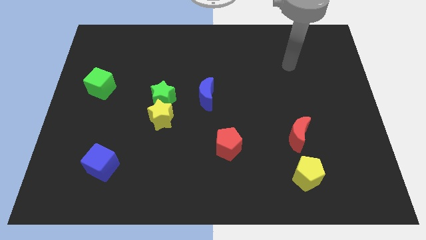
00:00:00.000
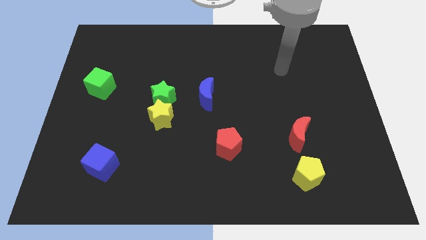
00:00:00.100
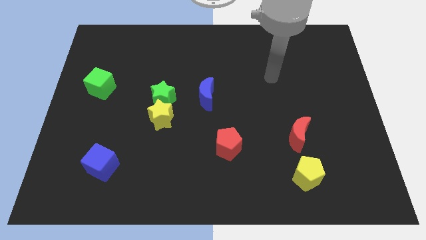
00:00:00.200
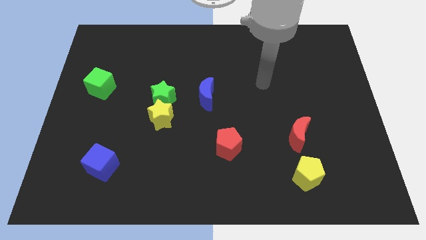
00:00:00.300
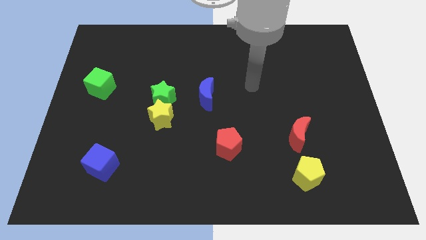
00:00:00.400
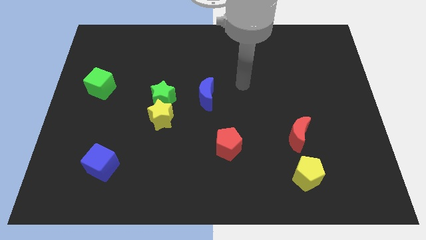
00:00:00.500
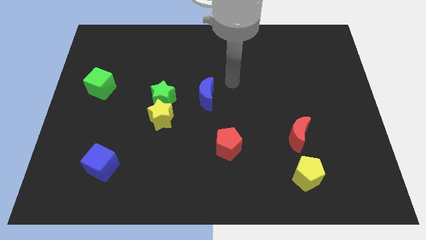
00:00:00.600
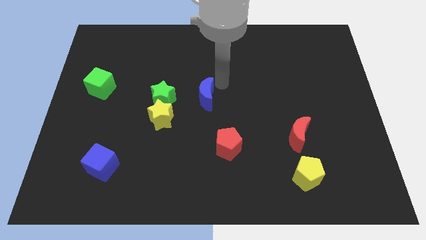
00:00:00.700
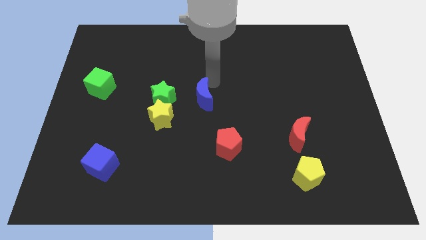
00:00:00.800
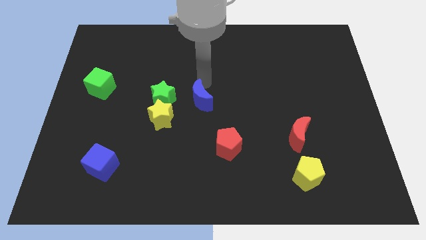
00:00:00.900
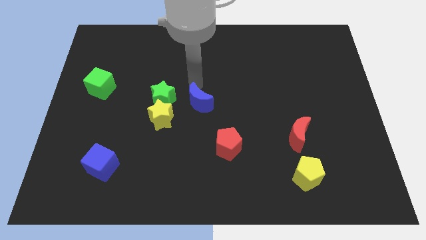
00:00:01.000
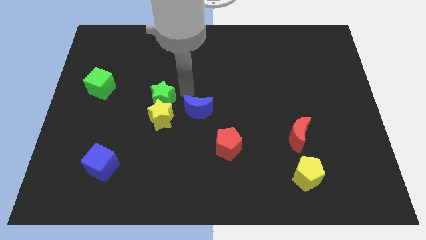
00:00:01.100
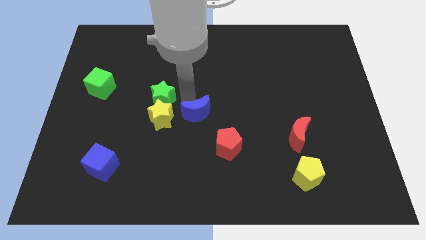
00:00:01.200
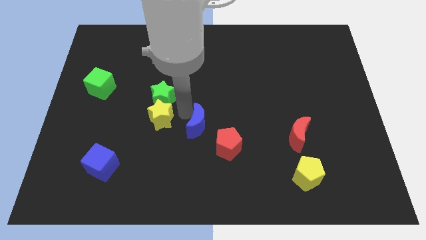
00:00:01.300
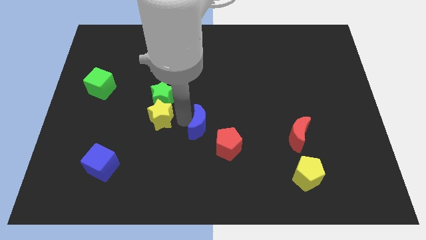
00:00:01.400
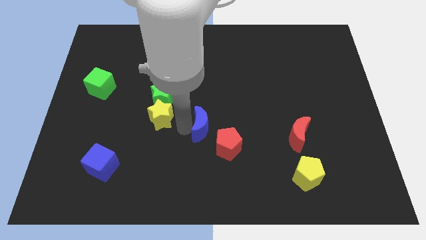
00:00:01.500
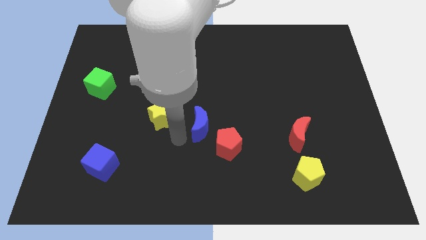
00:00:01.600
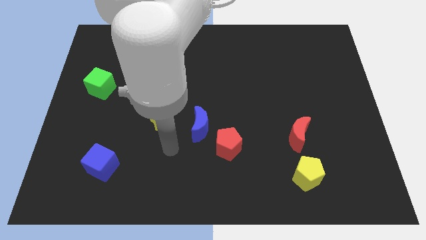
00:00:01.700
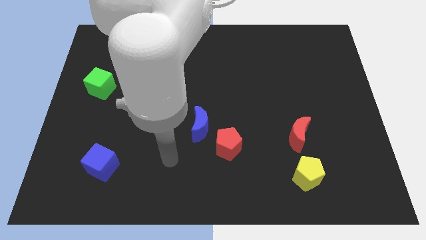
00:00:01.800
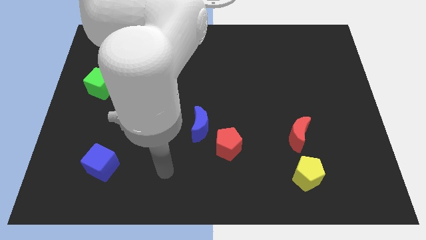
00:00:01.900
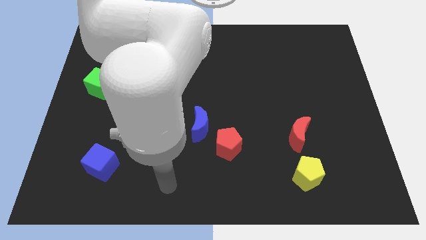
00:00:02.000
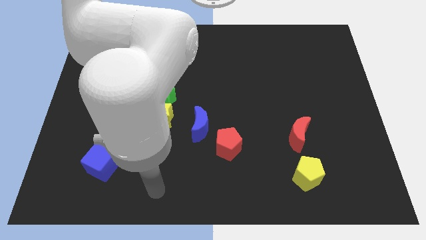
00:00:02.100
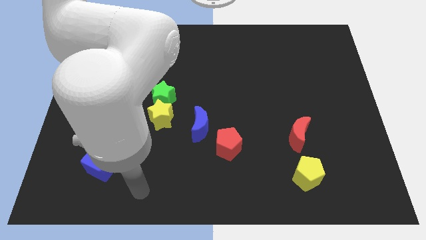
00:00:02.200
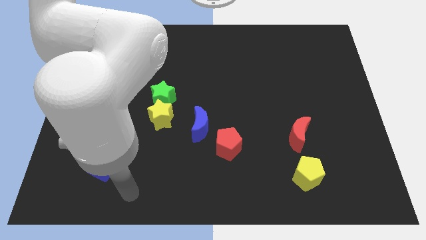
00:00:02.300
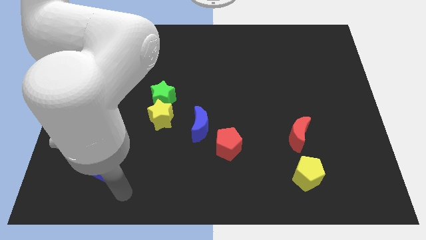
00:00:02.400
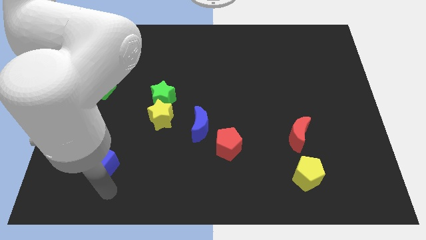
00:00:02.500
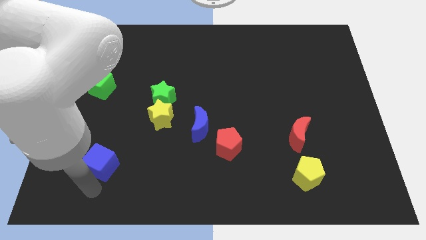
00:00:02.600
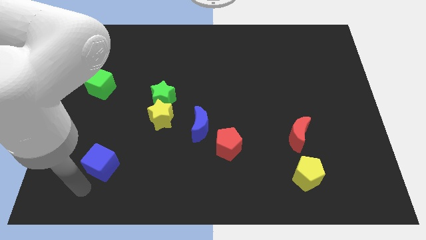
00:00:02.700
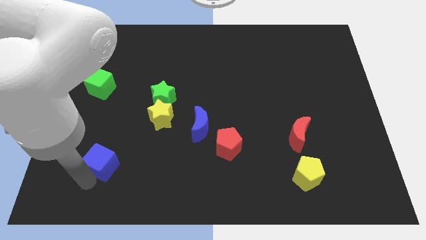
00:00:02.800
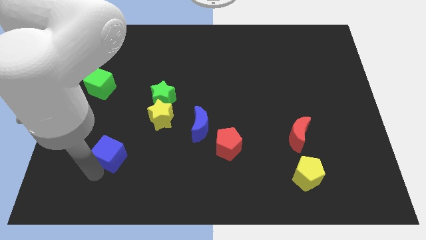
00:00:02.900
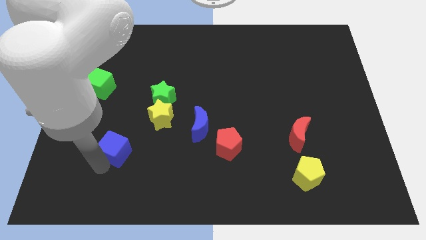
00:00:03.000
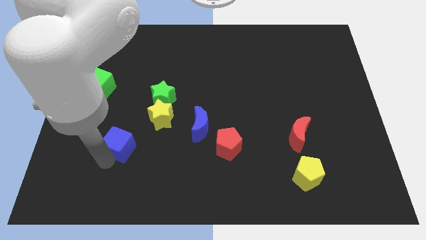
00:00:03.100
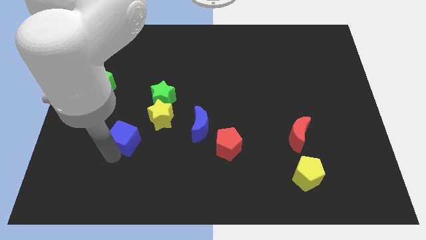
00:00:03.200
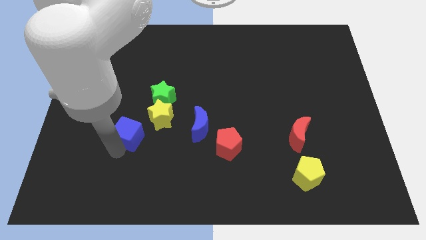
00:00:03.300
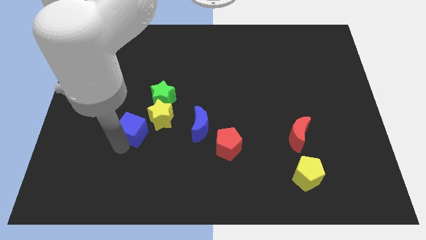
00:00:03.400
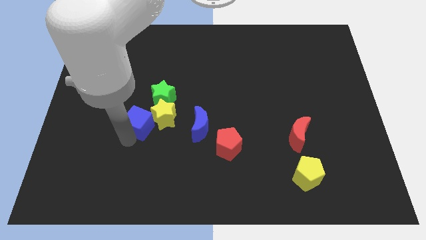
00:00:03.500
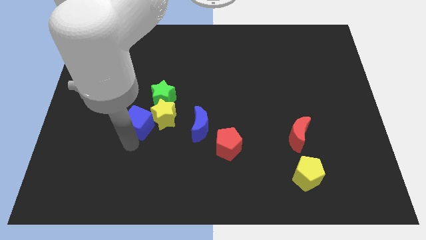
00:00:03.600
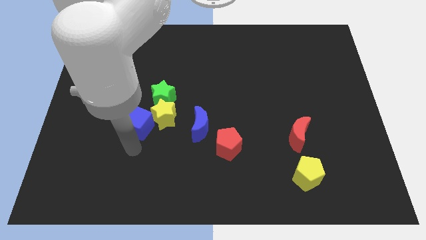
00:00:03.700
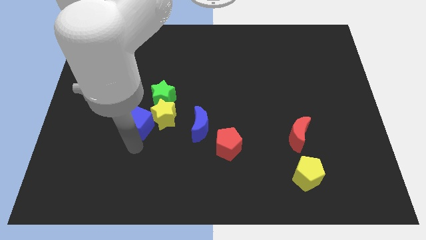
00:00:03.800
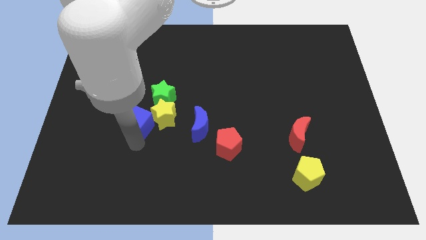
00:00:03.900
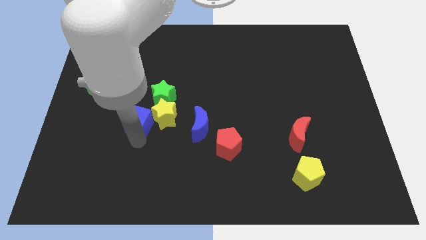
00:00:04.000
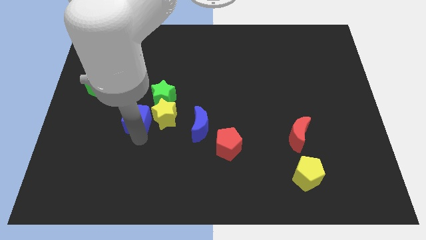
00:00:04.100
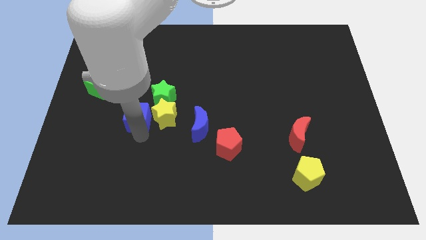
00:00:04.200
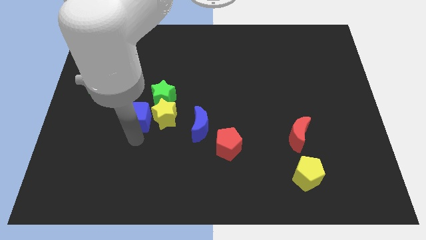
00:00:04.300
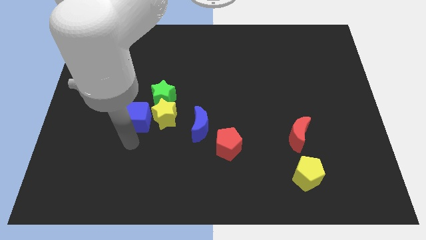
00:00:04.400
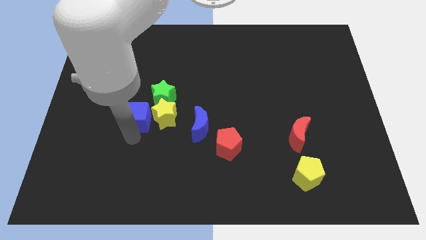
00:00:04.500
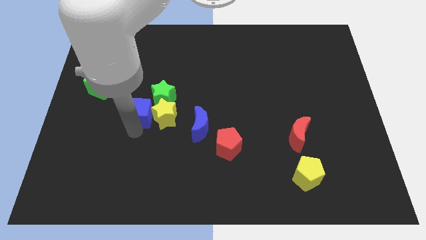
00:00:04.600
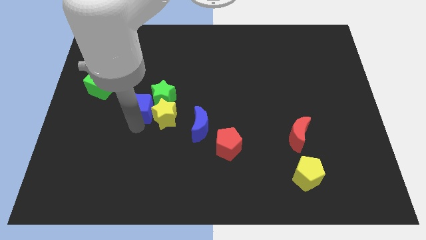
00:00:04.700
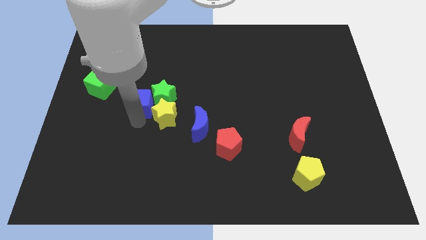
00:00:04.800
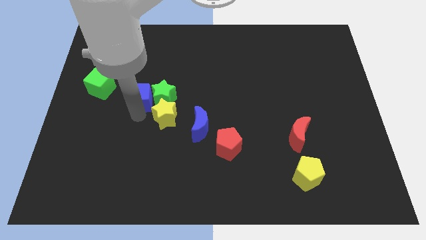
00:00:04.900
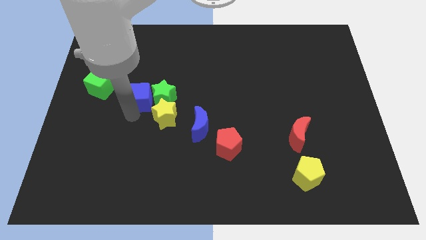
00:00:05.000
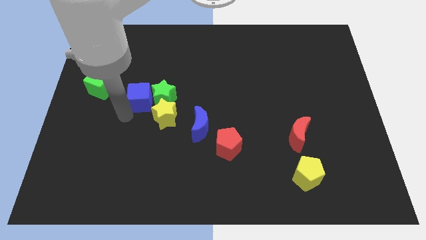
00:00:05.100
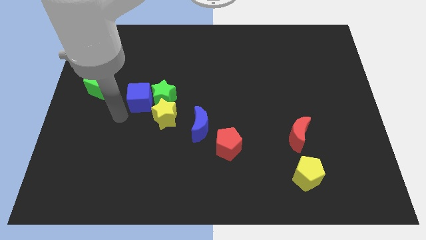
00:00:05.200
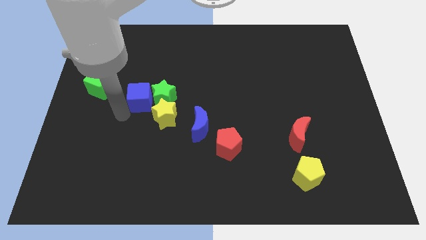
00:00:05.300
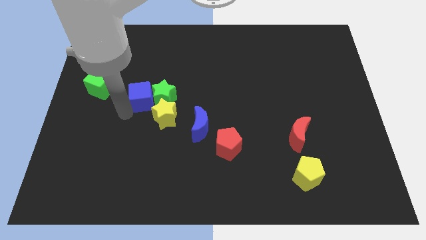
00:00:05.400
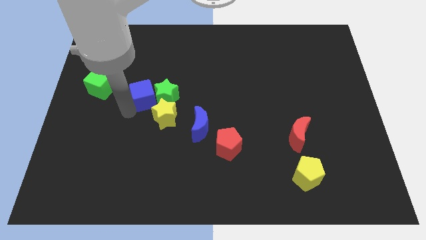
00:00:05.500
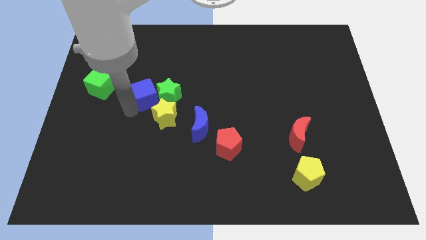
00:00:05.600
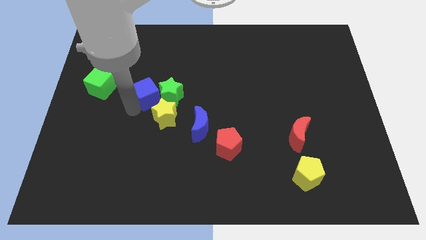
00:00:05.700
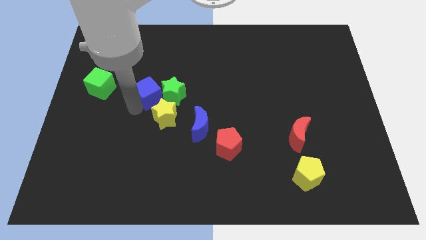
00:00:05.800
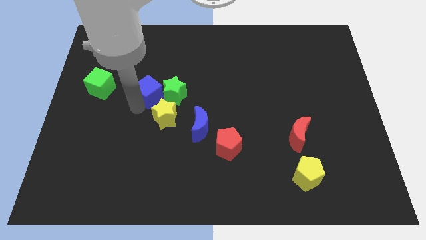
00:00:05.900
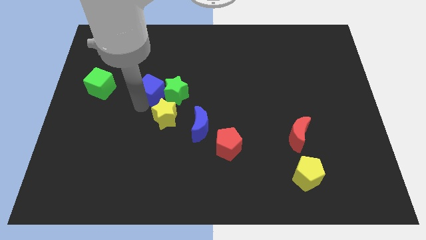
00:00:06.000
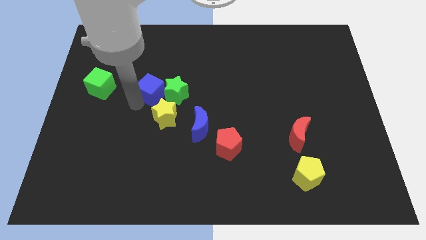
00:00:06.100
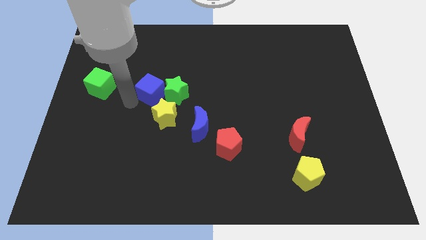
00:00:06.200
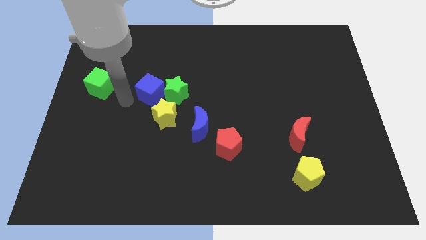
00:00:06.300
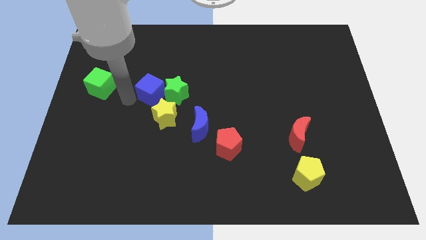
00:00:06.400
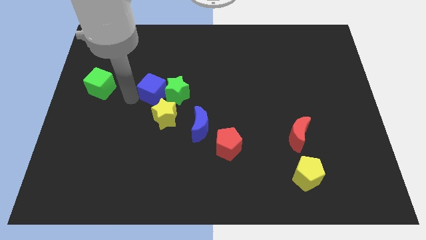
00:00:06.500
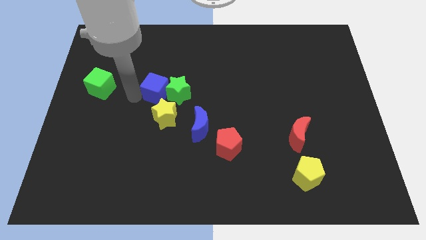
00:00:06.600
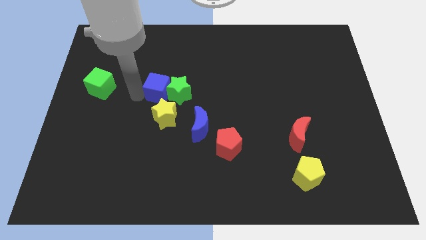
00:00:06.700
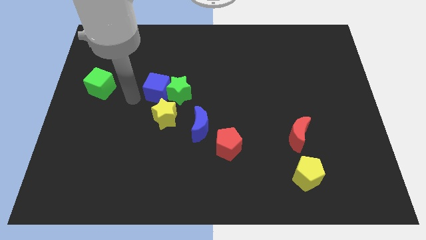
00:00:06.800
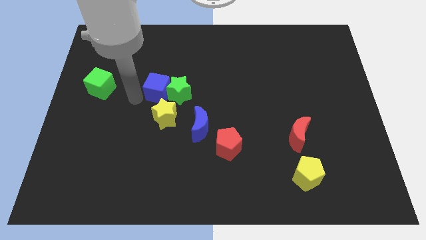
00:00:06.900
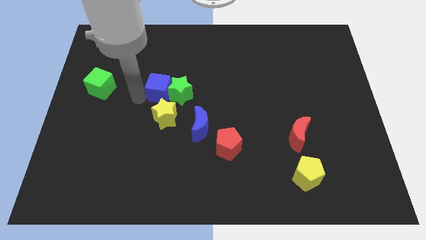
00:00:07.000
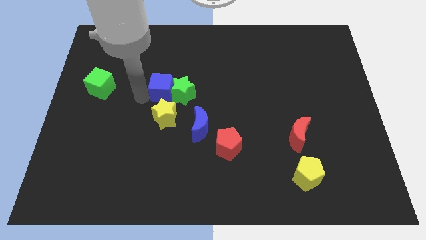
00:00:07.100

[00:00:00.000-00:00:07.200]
slide the blue cube diagonally up and to the right

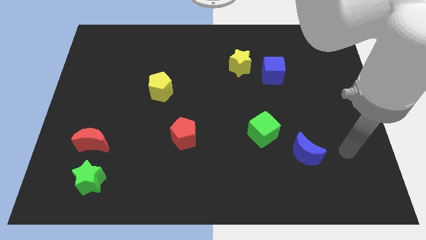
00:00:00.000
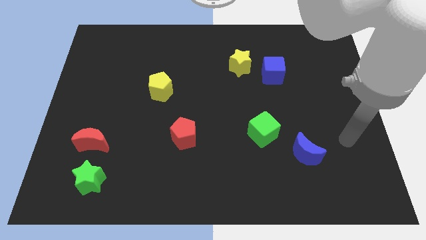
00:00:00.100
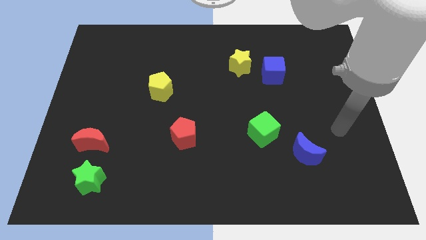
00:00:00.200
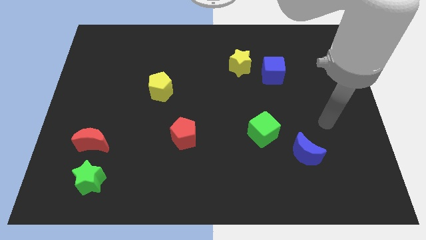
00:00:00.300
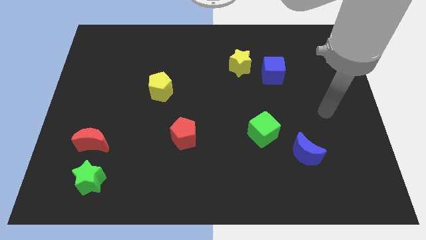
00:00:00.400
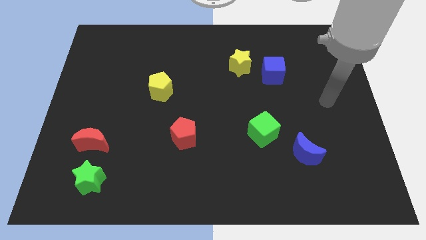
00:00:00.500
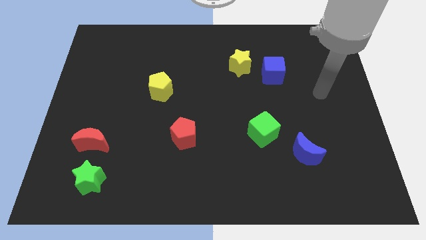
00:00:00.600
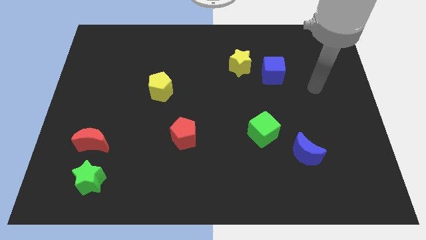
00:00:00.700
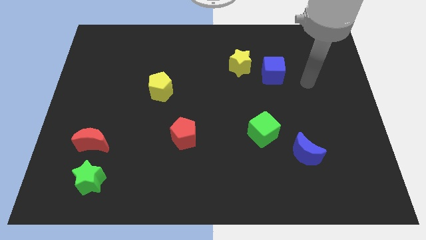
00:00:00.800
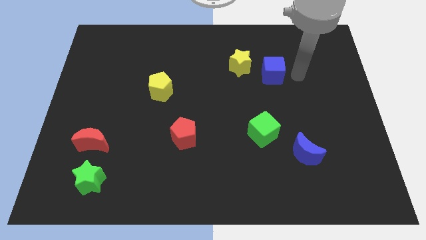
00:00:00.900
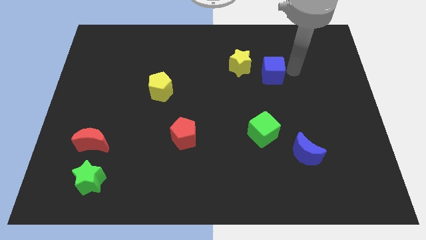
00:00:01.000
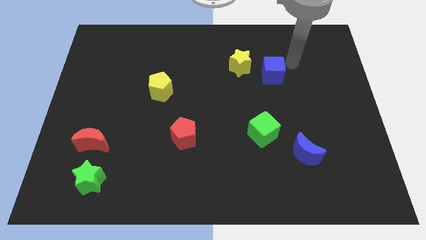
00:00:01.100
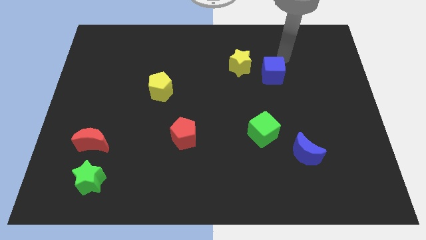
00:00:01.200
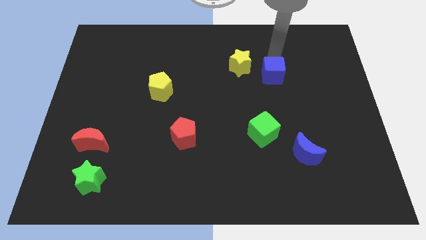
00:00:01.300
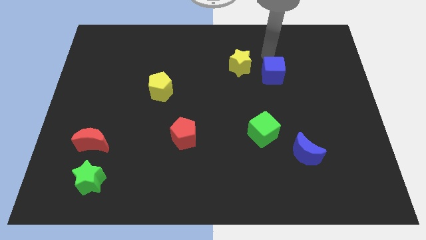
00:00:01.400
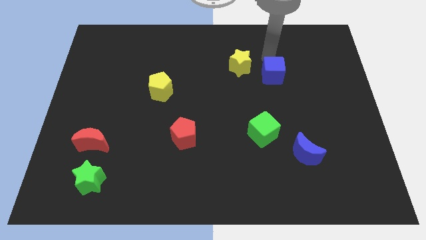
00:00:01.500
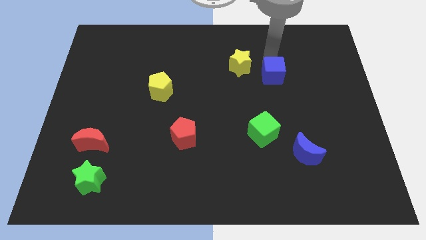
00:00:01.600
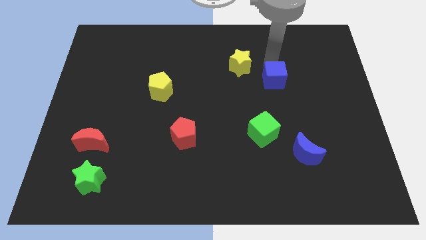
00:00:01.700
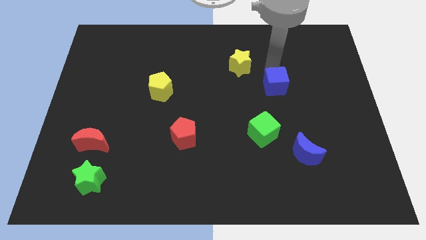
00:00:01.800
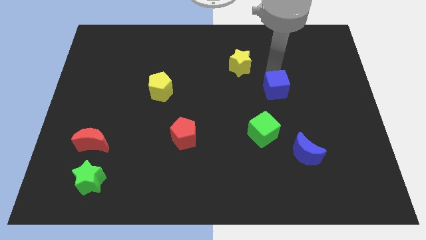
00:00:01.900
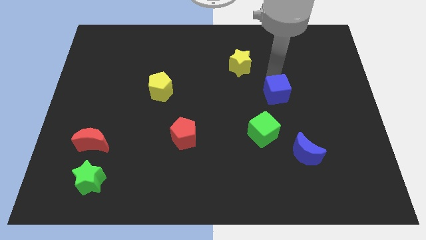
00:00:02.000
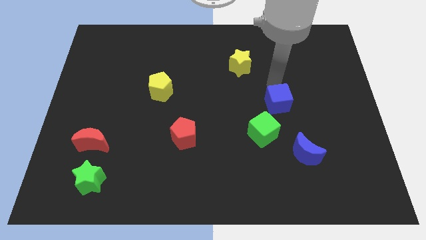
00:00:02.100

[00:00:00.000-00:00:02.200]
slide the blue cube slightly down
